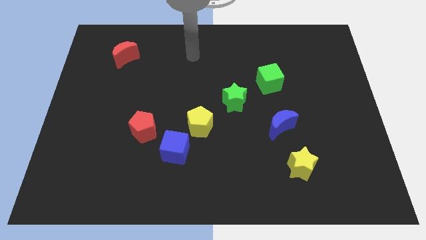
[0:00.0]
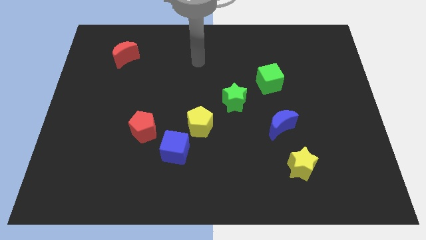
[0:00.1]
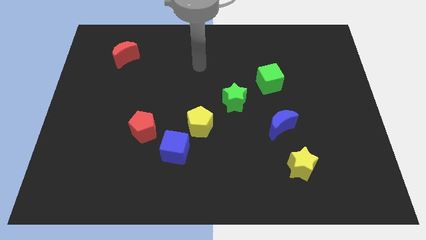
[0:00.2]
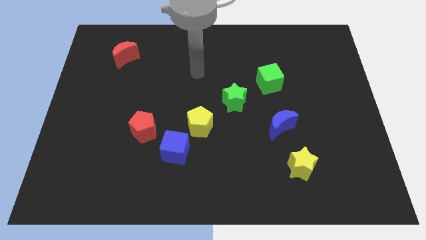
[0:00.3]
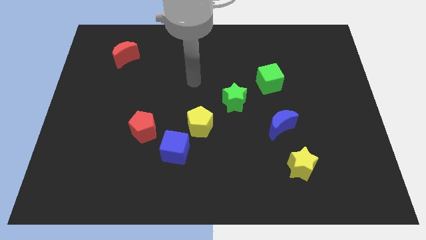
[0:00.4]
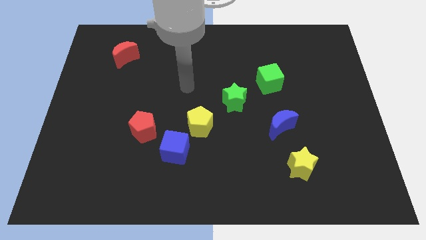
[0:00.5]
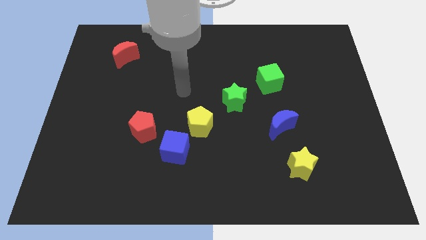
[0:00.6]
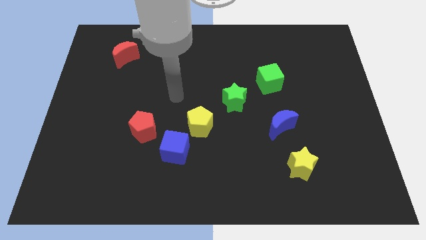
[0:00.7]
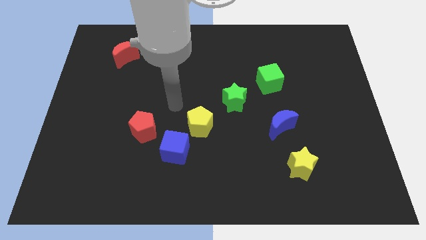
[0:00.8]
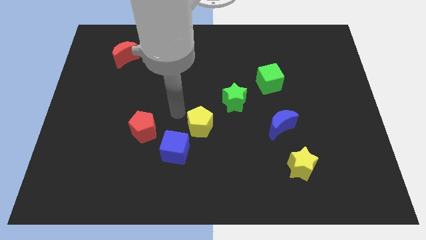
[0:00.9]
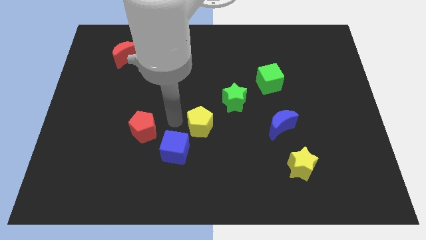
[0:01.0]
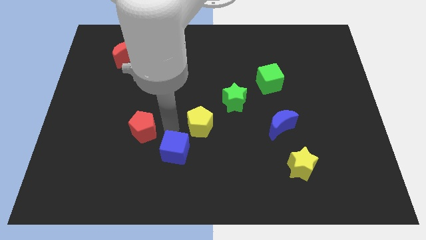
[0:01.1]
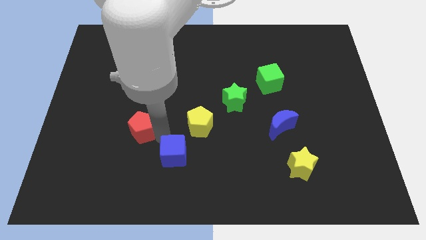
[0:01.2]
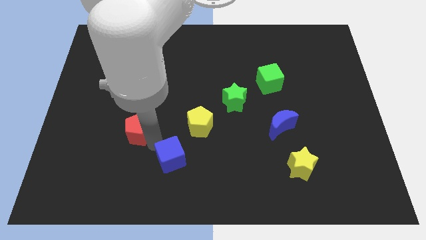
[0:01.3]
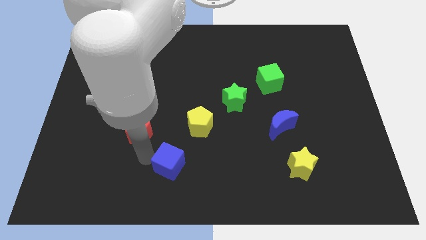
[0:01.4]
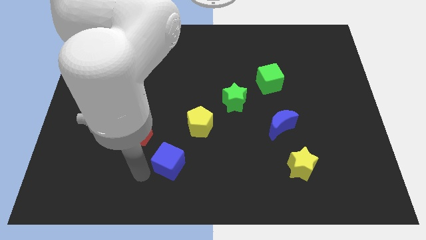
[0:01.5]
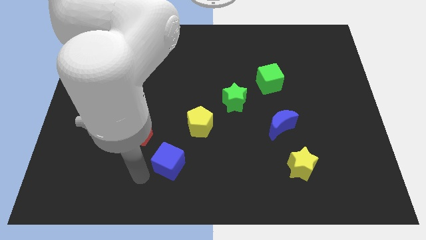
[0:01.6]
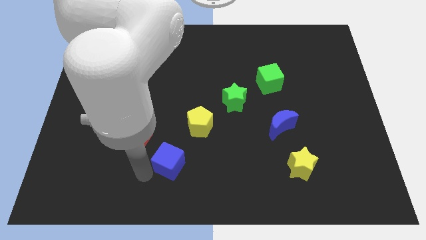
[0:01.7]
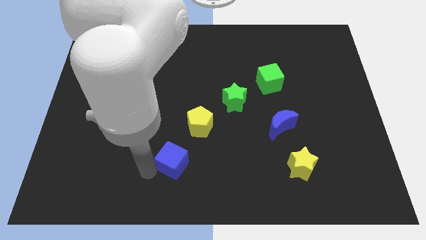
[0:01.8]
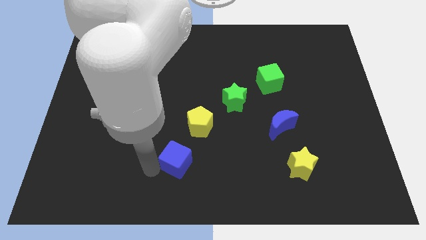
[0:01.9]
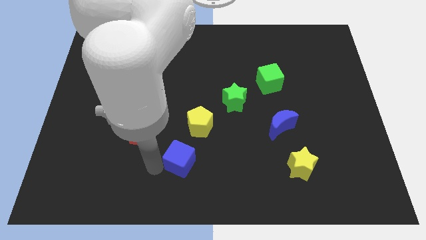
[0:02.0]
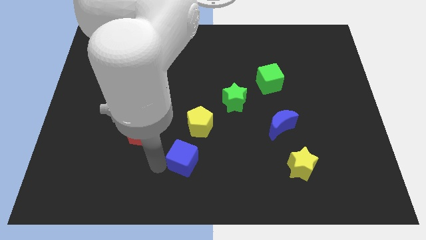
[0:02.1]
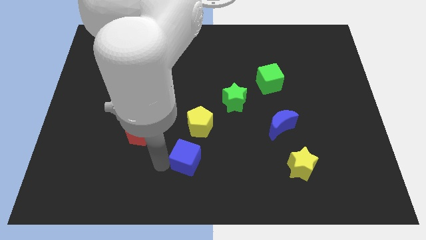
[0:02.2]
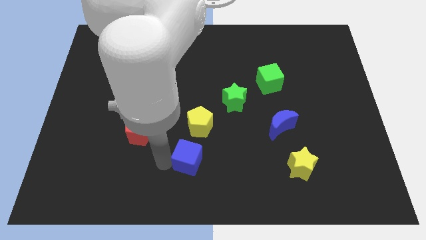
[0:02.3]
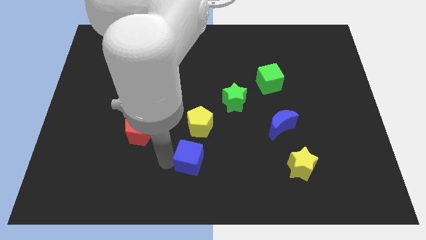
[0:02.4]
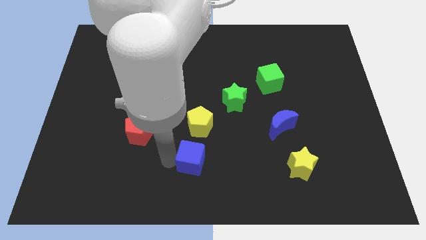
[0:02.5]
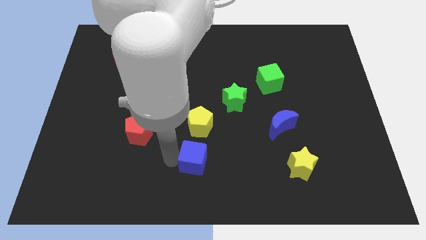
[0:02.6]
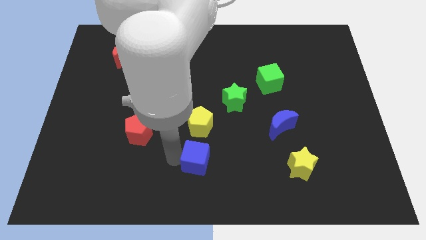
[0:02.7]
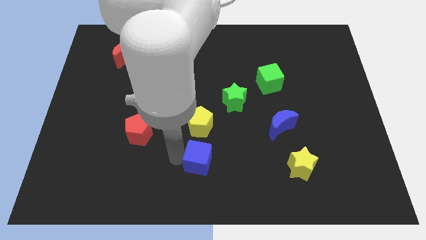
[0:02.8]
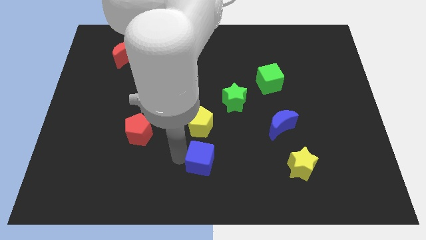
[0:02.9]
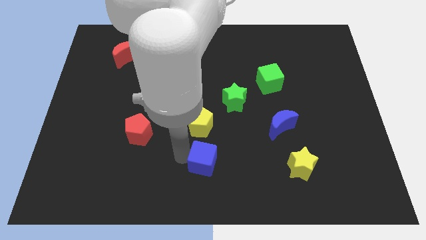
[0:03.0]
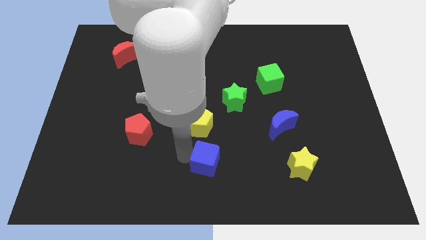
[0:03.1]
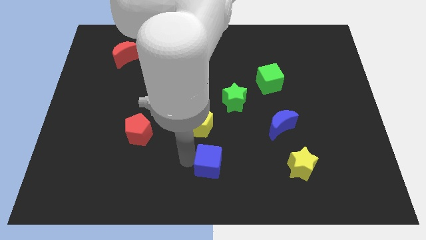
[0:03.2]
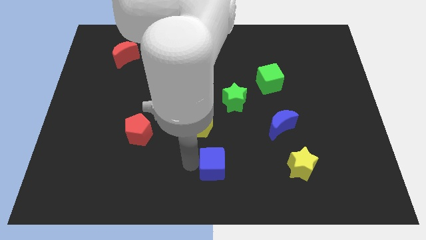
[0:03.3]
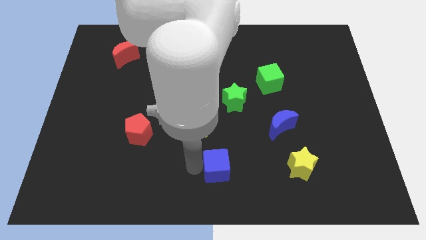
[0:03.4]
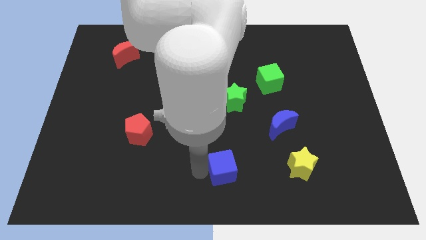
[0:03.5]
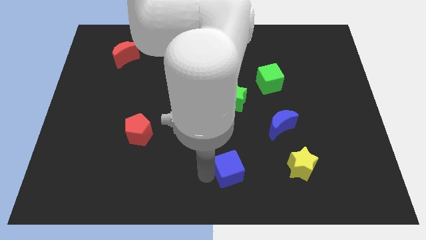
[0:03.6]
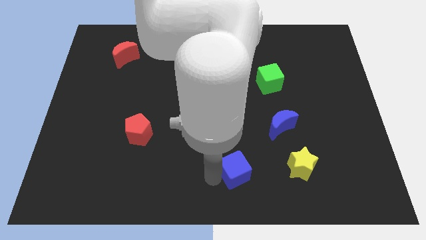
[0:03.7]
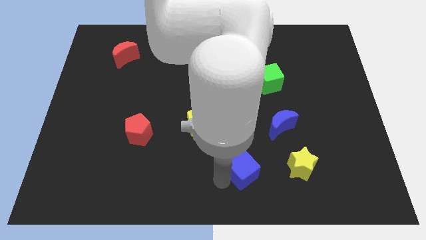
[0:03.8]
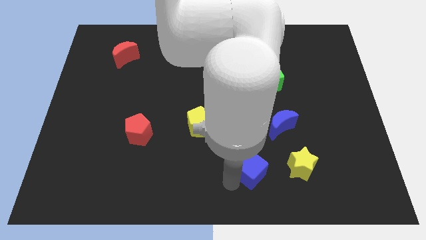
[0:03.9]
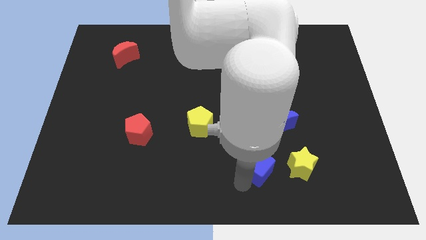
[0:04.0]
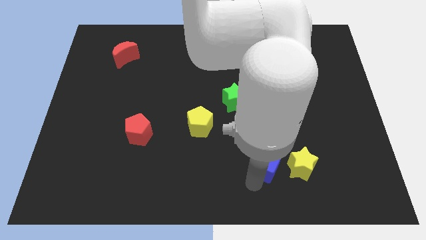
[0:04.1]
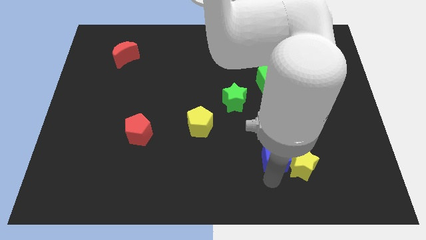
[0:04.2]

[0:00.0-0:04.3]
slide the blue cube to the right

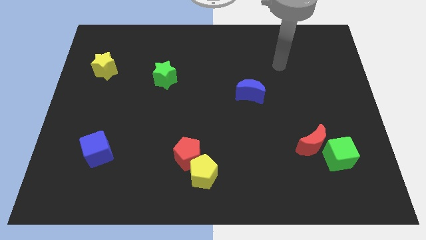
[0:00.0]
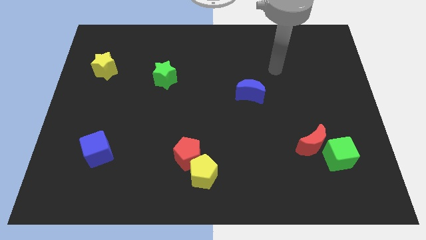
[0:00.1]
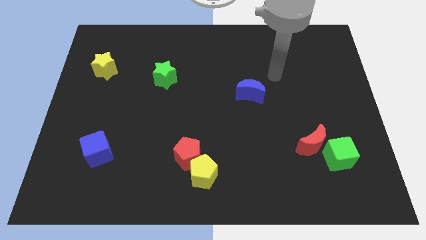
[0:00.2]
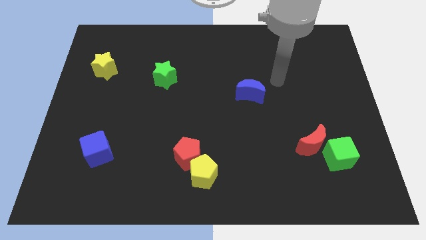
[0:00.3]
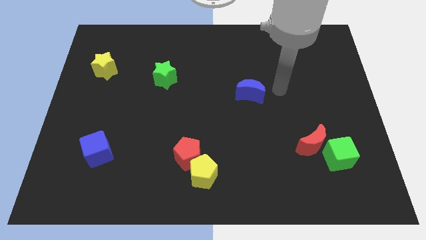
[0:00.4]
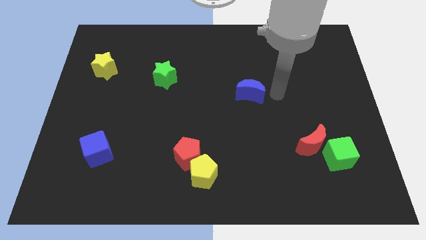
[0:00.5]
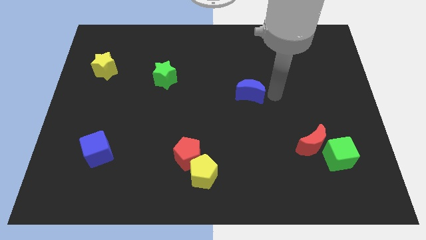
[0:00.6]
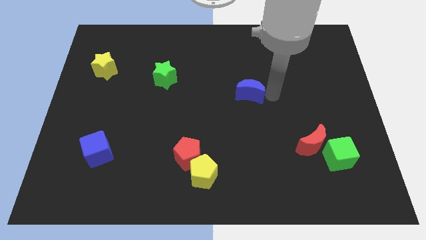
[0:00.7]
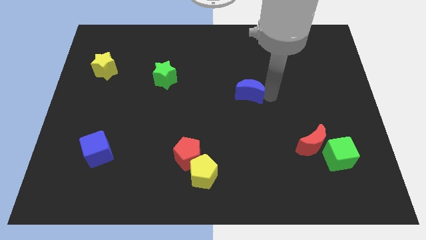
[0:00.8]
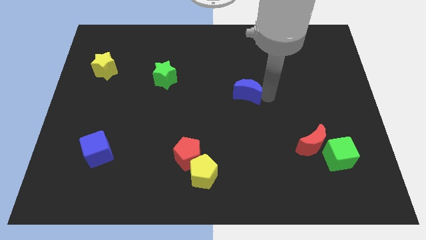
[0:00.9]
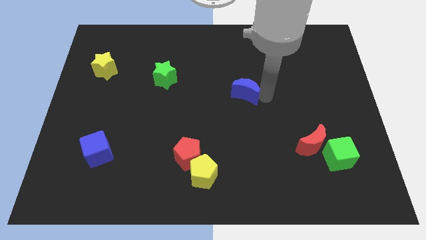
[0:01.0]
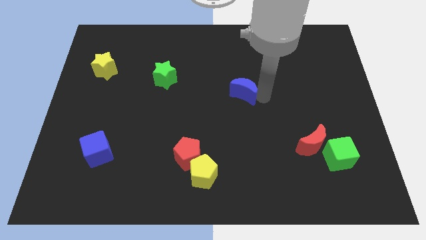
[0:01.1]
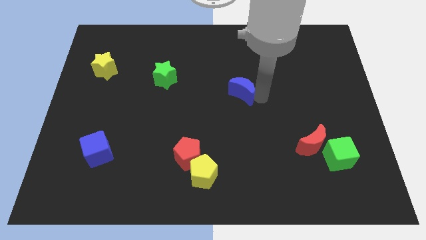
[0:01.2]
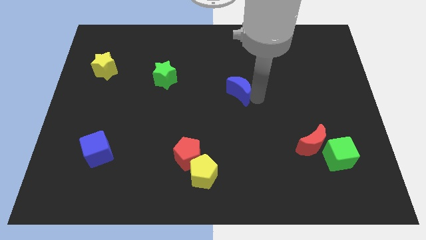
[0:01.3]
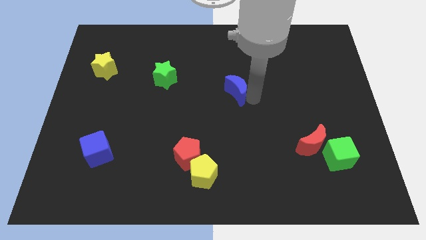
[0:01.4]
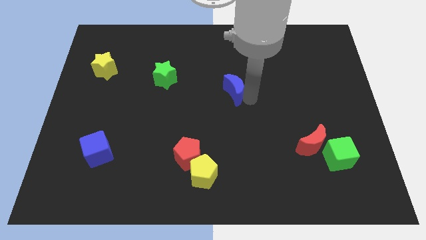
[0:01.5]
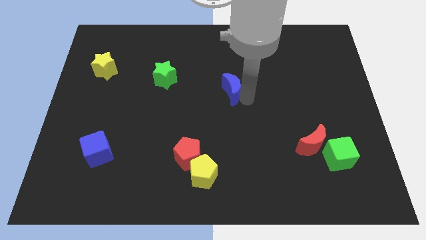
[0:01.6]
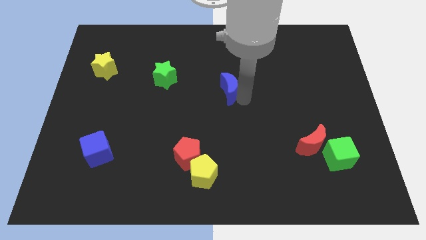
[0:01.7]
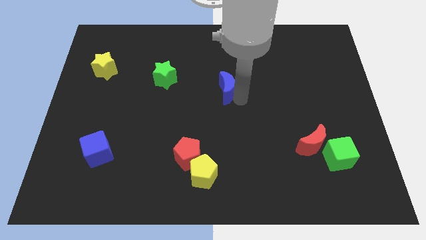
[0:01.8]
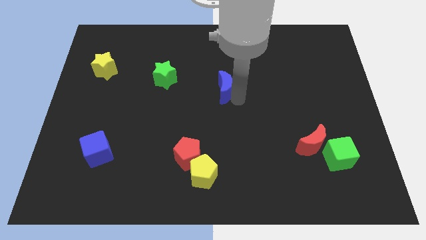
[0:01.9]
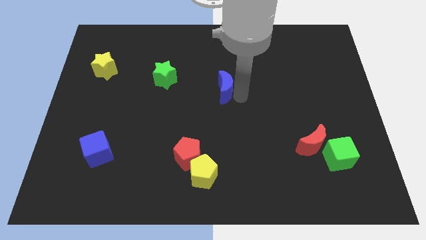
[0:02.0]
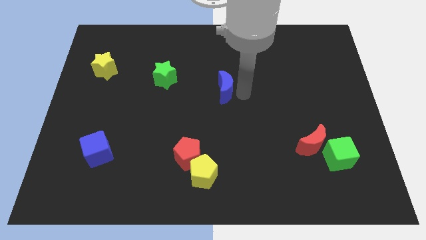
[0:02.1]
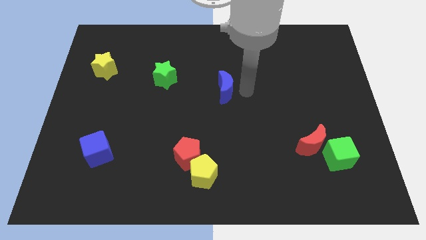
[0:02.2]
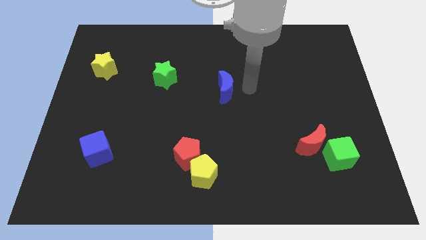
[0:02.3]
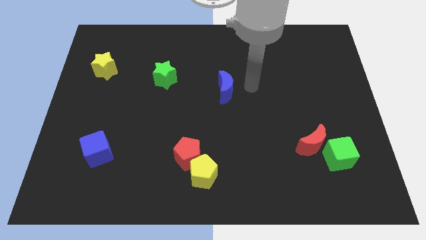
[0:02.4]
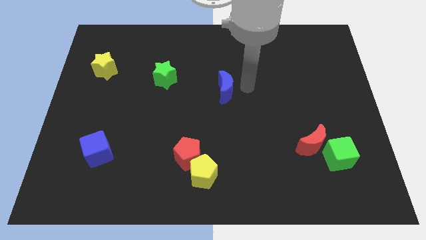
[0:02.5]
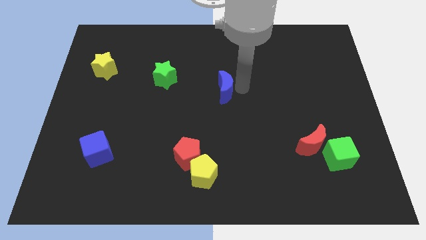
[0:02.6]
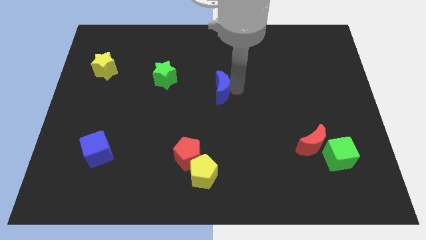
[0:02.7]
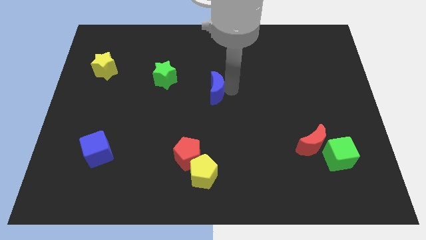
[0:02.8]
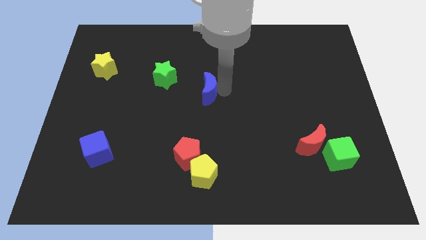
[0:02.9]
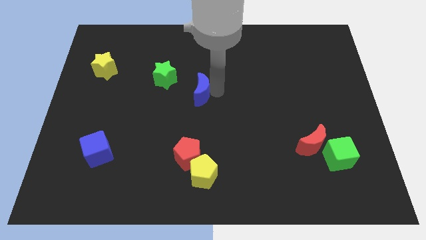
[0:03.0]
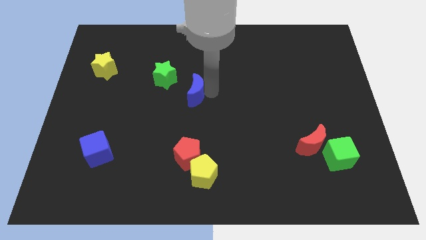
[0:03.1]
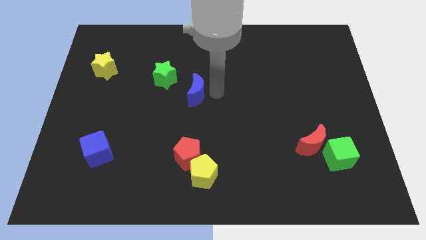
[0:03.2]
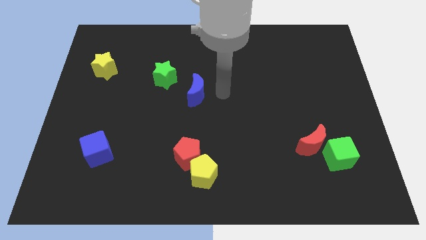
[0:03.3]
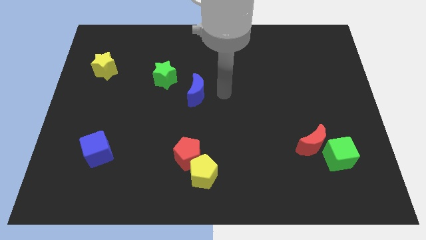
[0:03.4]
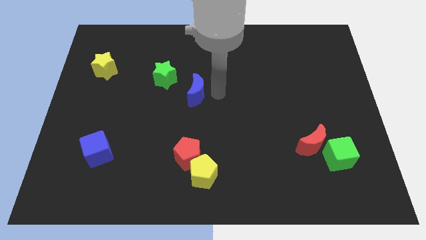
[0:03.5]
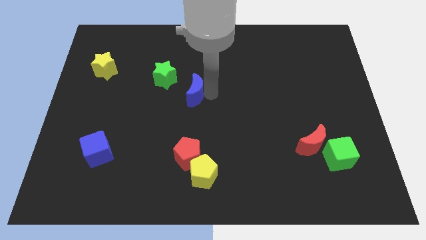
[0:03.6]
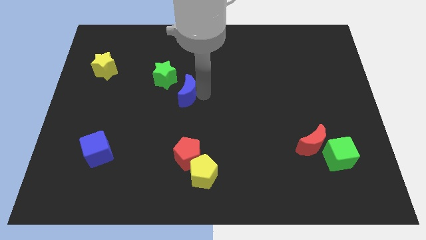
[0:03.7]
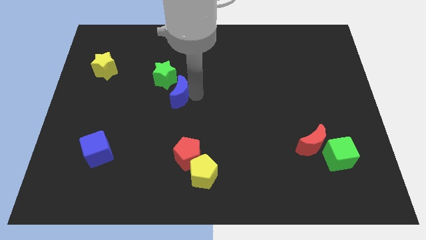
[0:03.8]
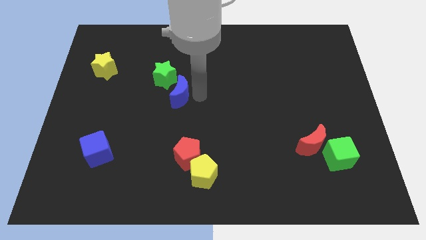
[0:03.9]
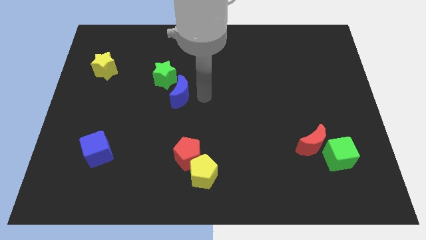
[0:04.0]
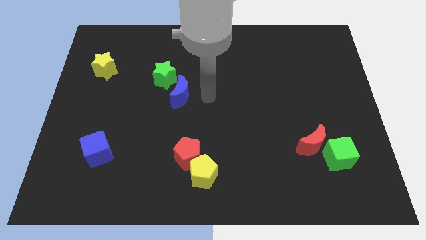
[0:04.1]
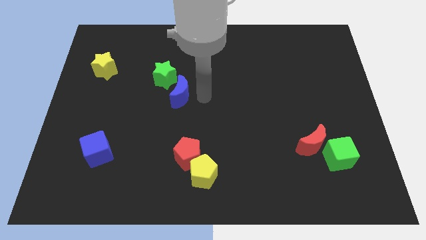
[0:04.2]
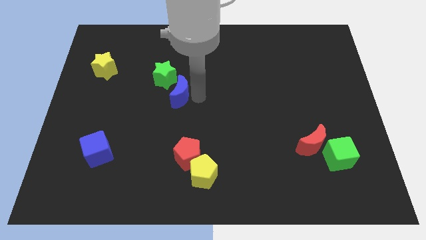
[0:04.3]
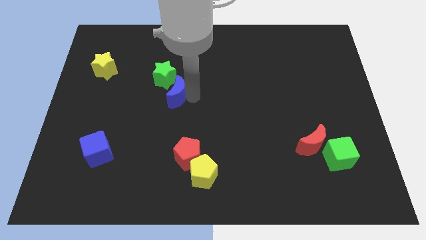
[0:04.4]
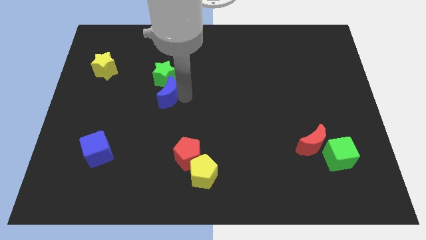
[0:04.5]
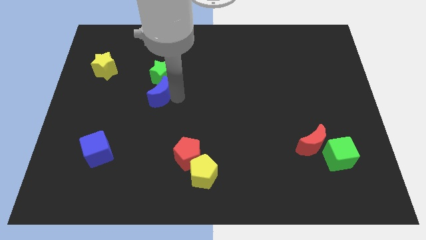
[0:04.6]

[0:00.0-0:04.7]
slide the blue moon left
